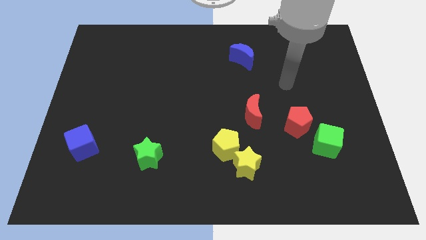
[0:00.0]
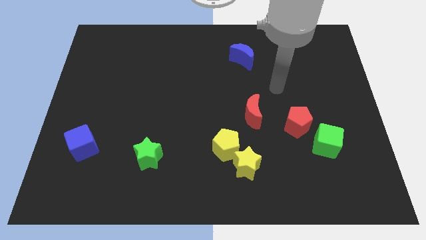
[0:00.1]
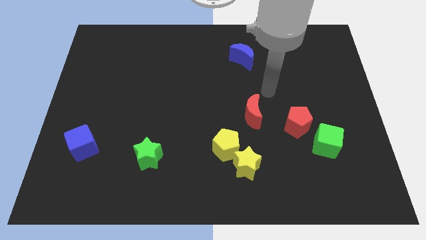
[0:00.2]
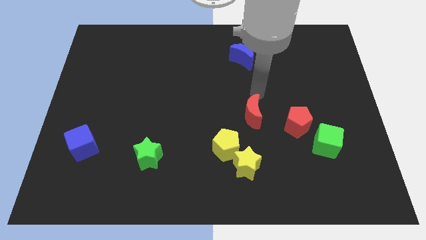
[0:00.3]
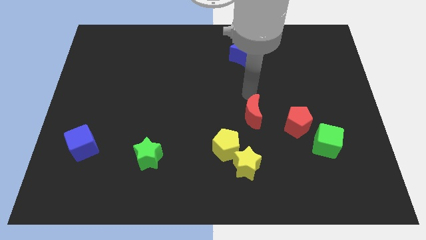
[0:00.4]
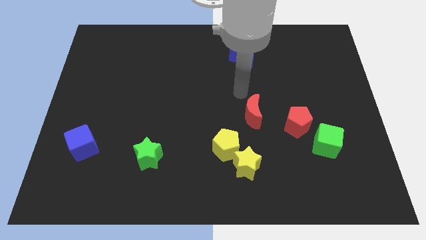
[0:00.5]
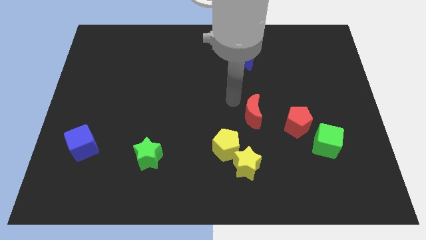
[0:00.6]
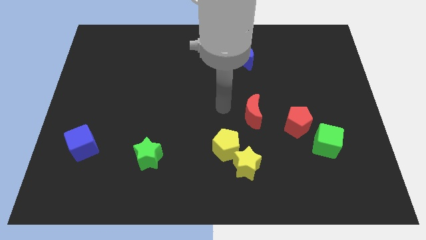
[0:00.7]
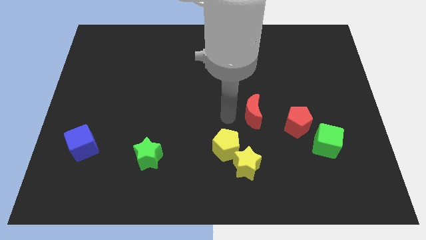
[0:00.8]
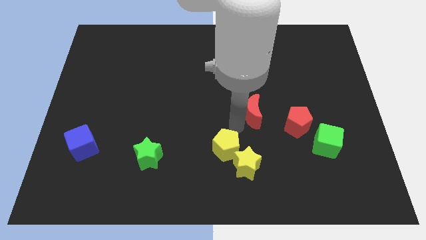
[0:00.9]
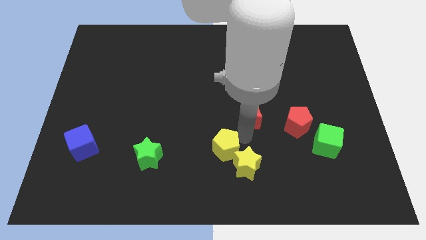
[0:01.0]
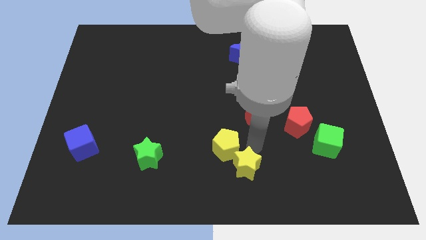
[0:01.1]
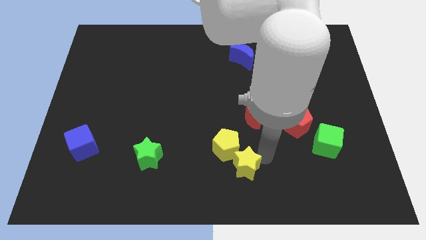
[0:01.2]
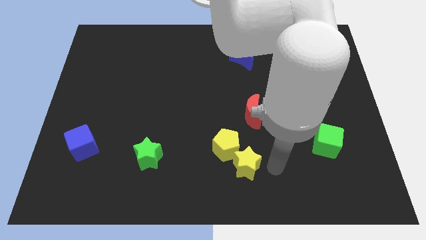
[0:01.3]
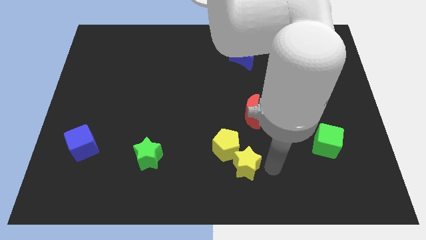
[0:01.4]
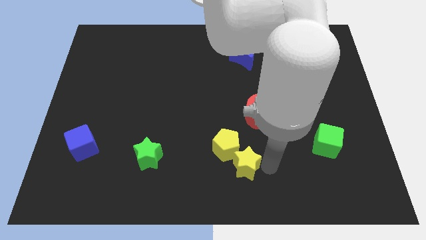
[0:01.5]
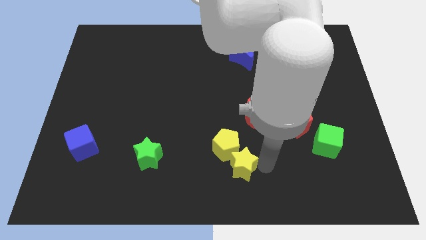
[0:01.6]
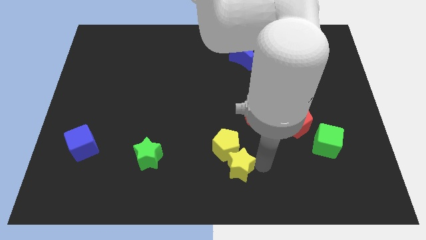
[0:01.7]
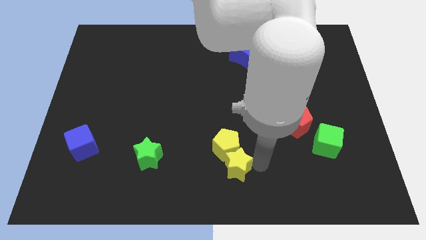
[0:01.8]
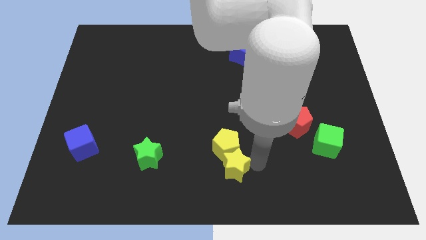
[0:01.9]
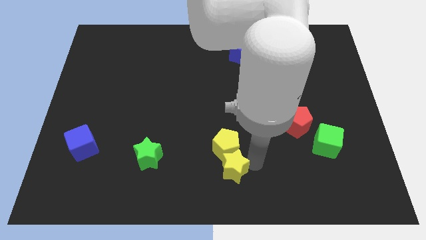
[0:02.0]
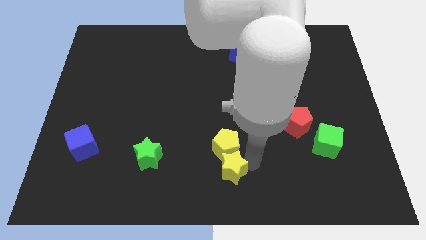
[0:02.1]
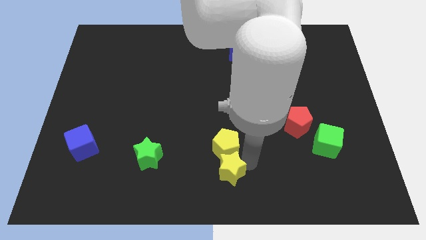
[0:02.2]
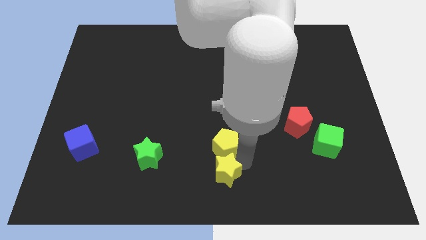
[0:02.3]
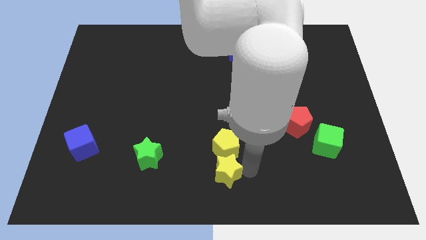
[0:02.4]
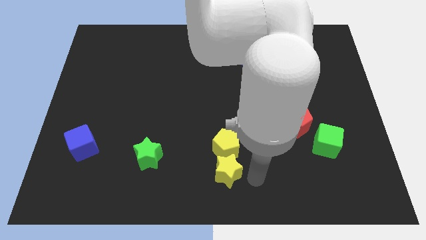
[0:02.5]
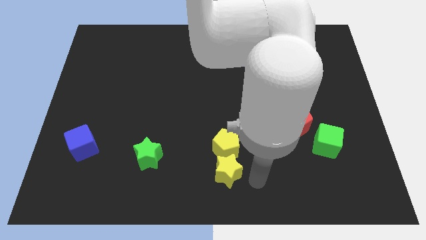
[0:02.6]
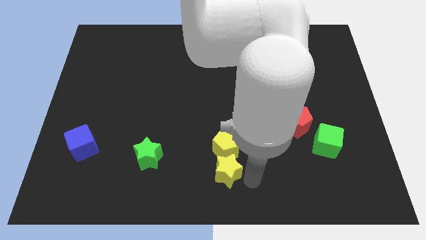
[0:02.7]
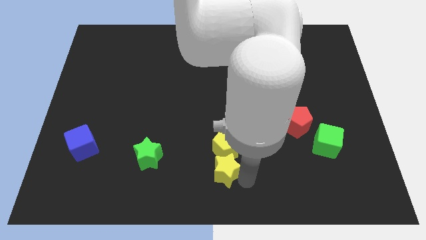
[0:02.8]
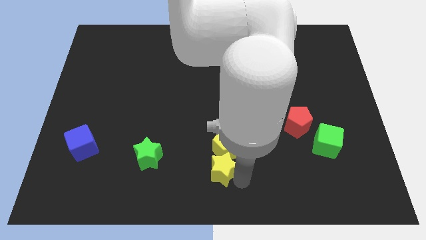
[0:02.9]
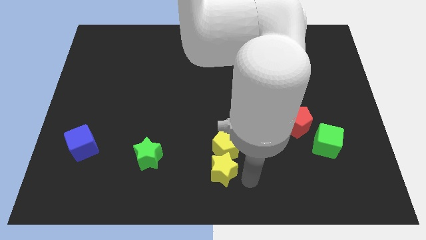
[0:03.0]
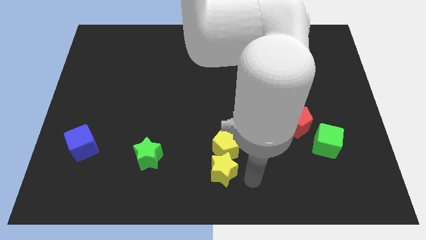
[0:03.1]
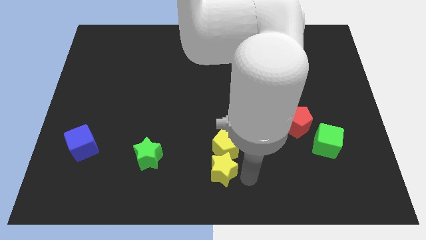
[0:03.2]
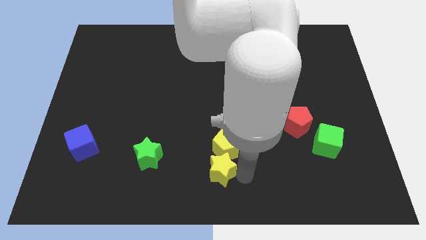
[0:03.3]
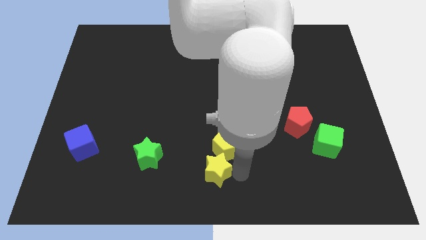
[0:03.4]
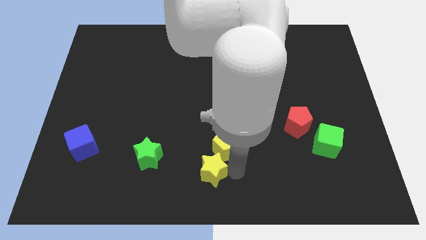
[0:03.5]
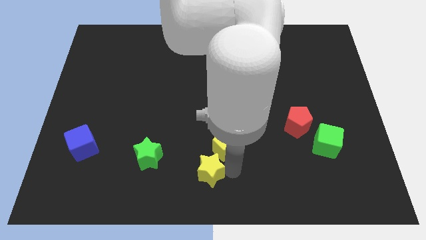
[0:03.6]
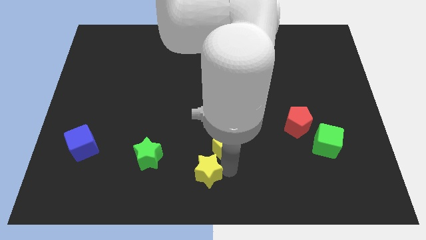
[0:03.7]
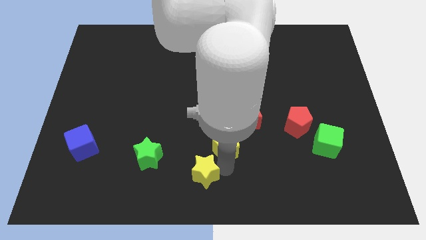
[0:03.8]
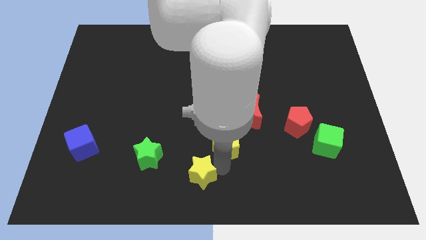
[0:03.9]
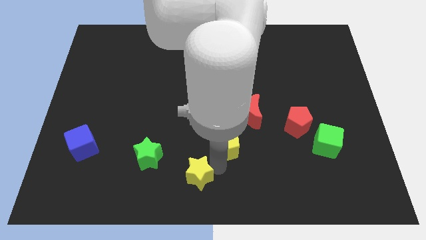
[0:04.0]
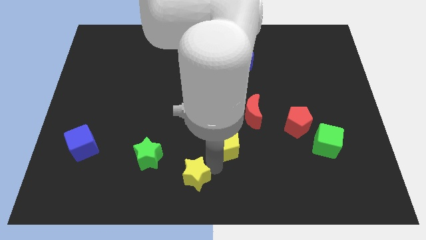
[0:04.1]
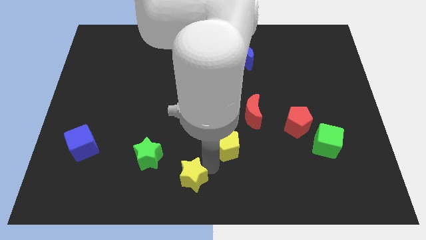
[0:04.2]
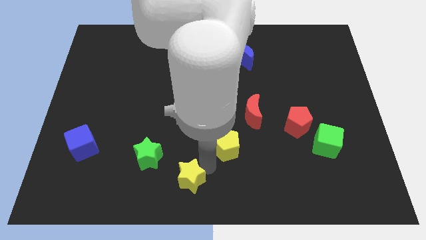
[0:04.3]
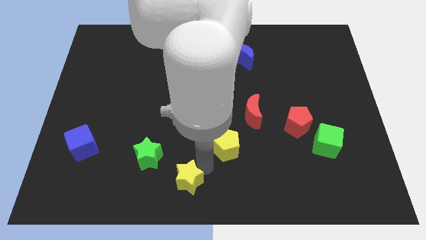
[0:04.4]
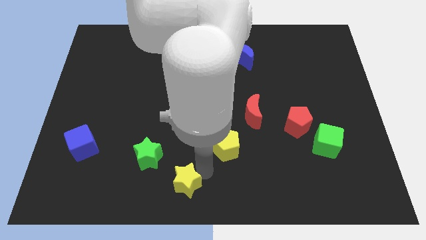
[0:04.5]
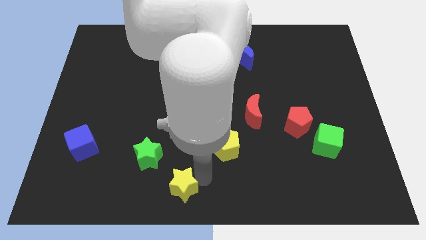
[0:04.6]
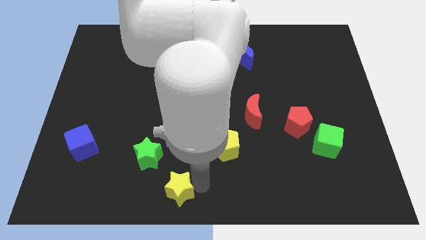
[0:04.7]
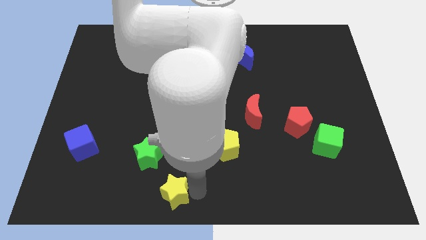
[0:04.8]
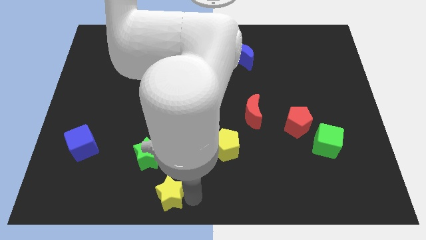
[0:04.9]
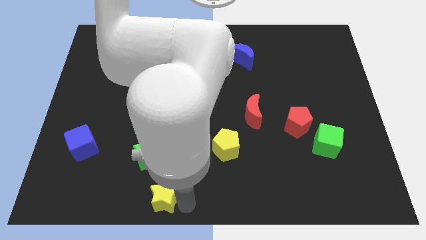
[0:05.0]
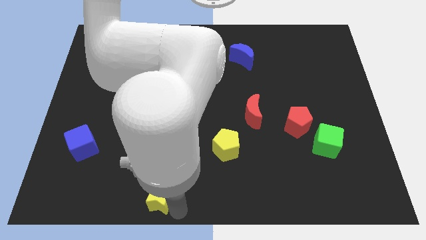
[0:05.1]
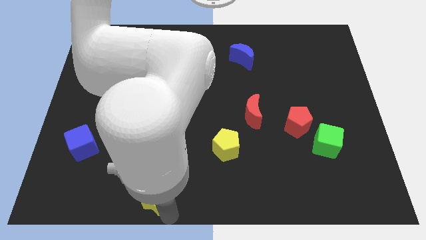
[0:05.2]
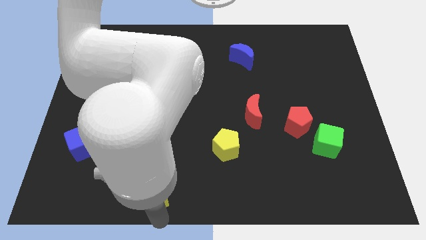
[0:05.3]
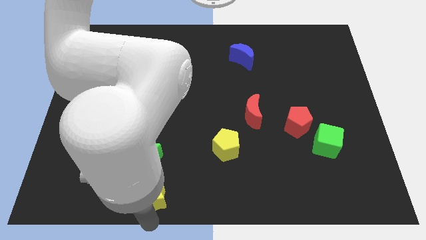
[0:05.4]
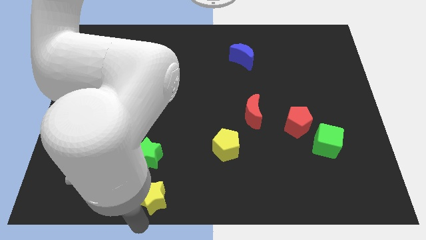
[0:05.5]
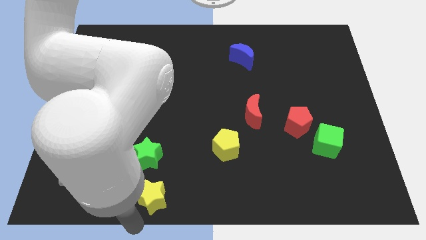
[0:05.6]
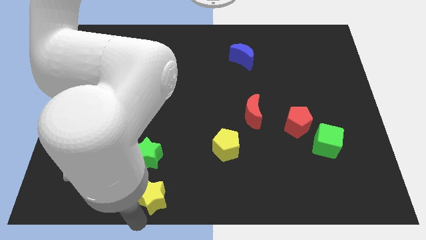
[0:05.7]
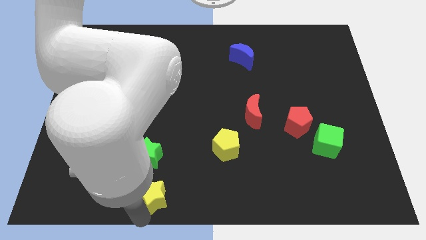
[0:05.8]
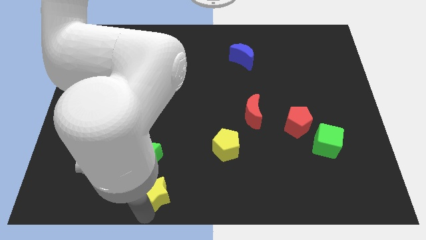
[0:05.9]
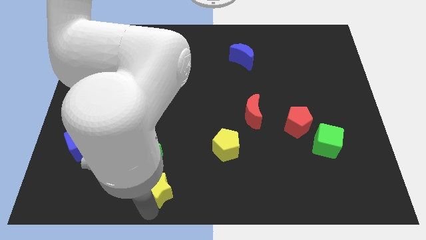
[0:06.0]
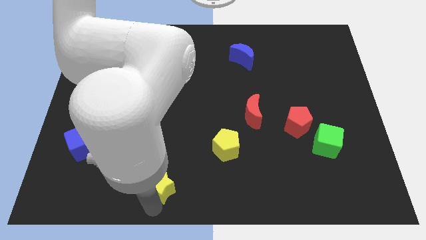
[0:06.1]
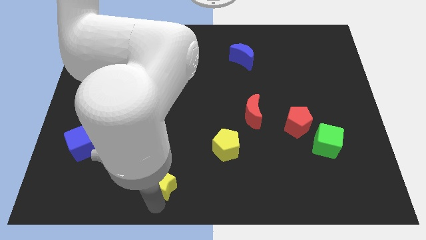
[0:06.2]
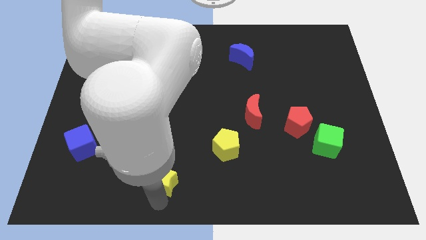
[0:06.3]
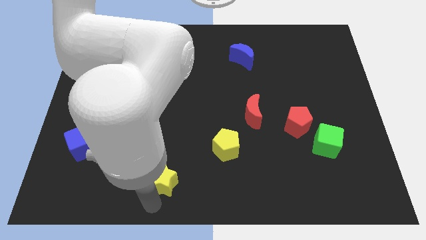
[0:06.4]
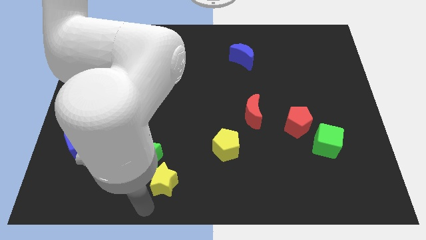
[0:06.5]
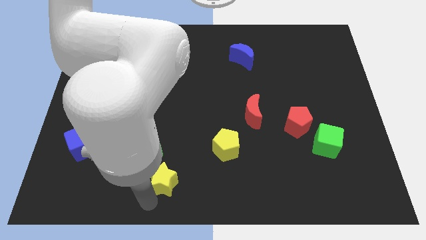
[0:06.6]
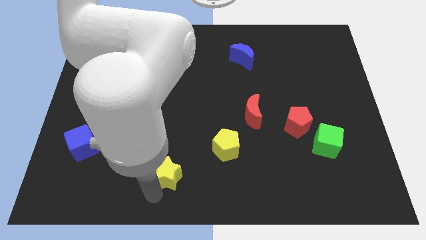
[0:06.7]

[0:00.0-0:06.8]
slide the yellow star next to the green star

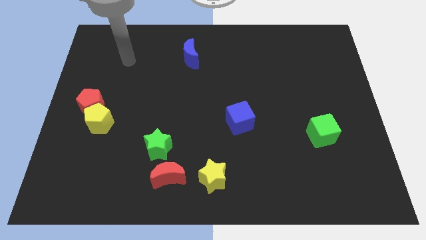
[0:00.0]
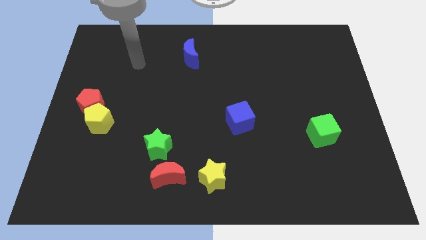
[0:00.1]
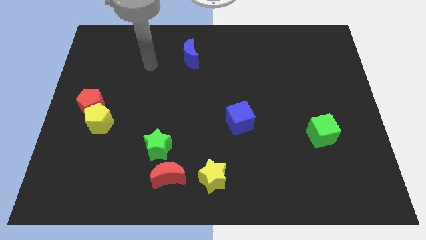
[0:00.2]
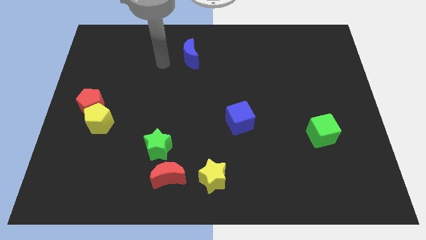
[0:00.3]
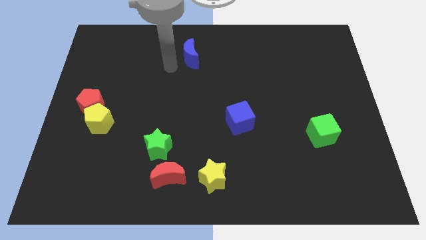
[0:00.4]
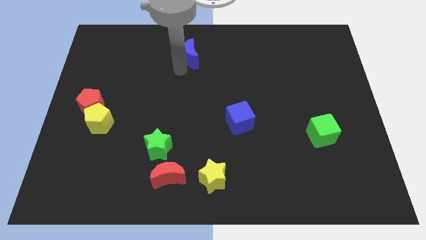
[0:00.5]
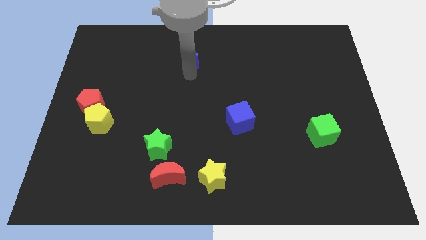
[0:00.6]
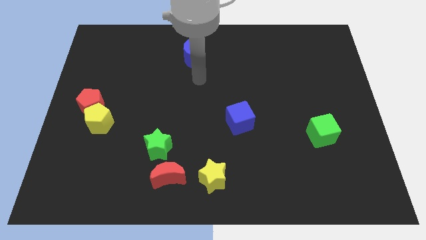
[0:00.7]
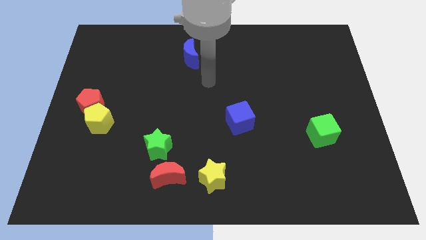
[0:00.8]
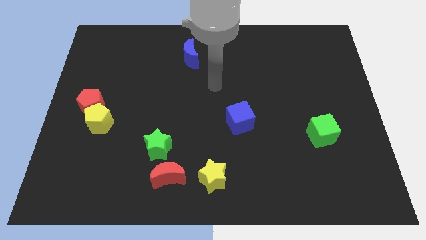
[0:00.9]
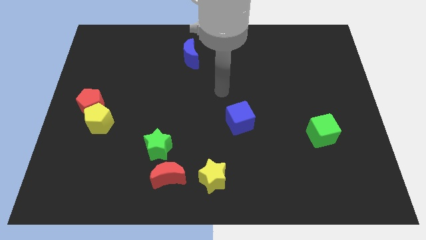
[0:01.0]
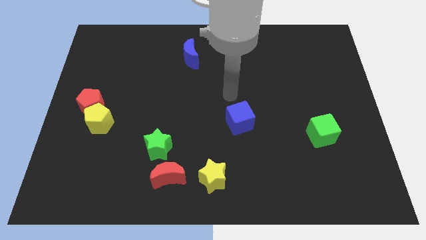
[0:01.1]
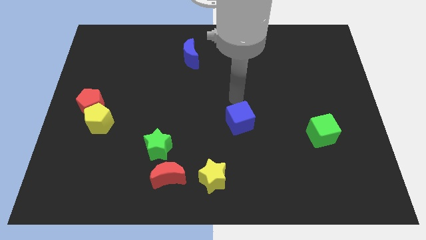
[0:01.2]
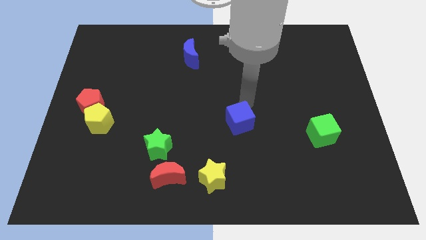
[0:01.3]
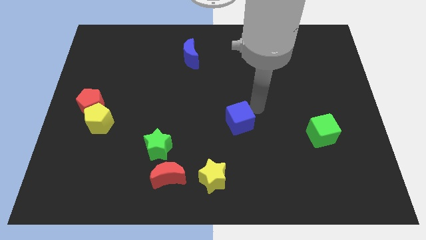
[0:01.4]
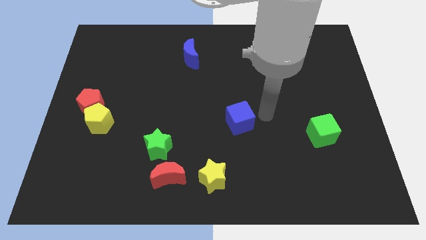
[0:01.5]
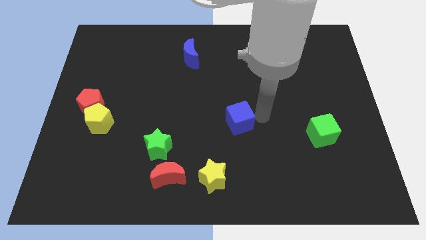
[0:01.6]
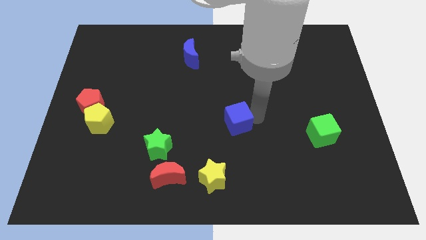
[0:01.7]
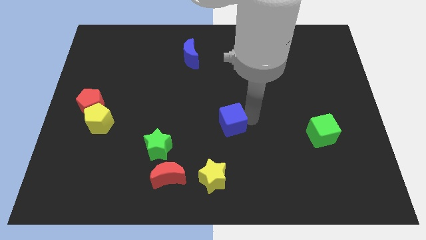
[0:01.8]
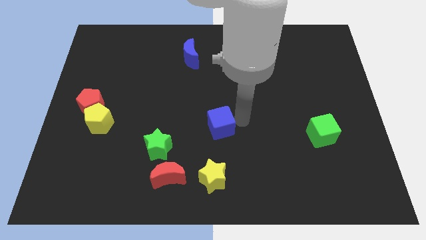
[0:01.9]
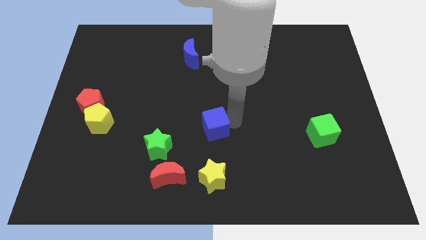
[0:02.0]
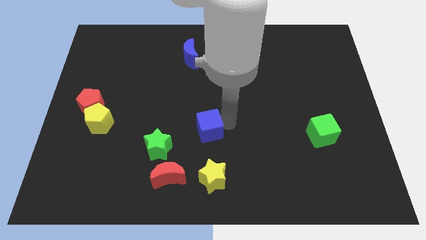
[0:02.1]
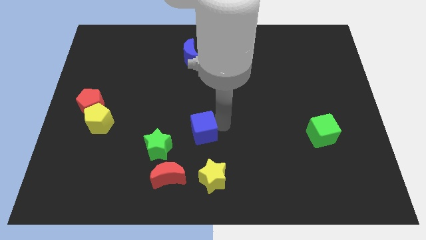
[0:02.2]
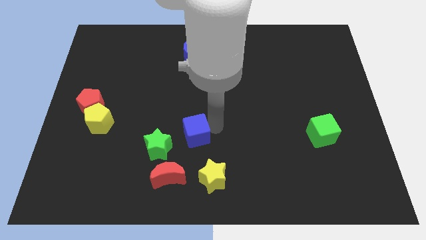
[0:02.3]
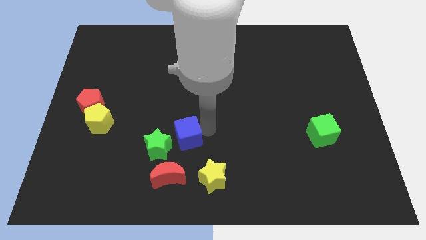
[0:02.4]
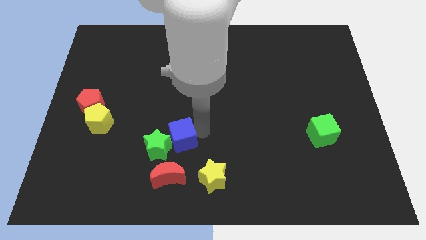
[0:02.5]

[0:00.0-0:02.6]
put the blue cube towards the green star
